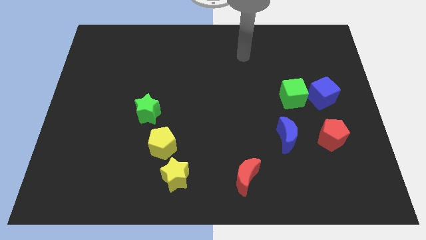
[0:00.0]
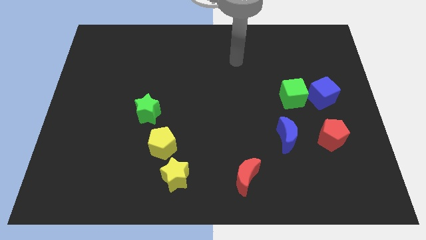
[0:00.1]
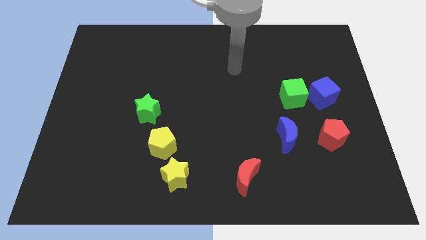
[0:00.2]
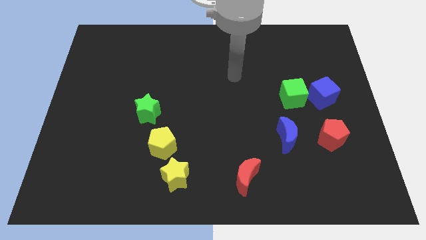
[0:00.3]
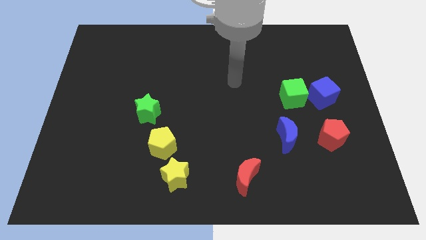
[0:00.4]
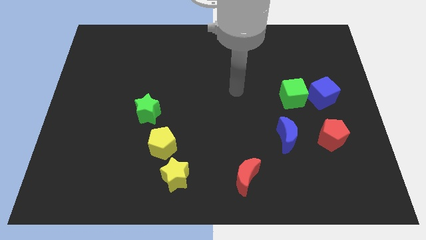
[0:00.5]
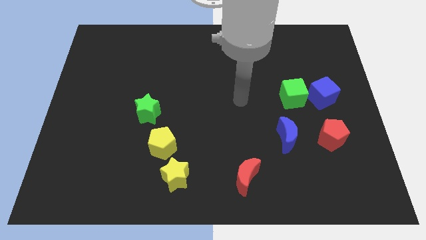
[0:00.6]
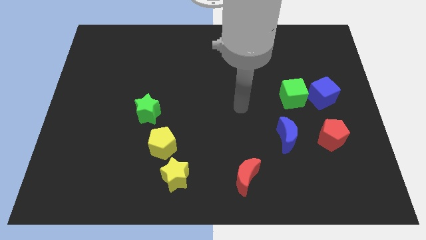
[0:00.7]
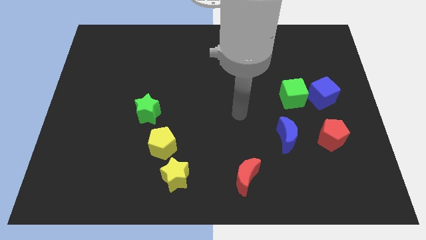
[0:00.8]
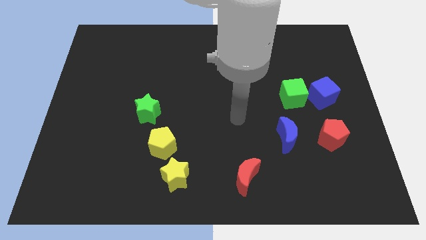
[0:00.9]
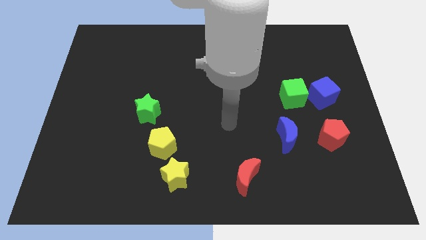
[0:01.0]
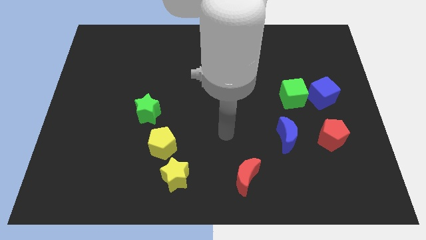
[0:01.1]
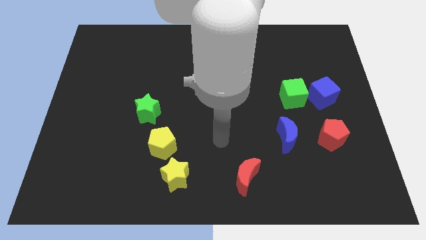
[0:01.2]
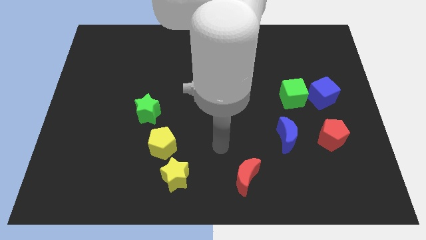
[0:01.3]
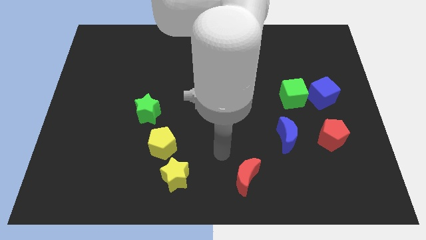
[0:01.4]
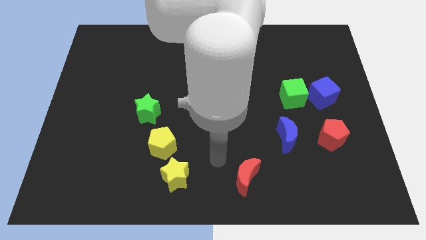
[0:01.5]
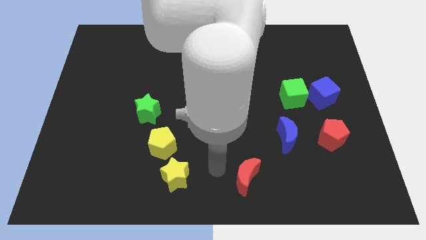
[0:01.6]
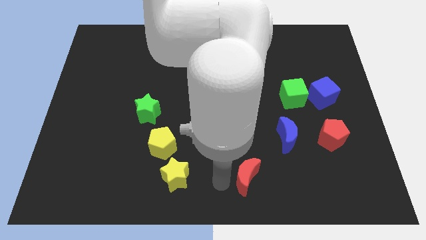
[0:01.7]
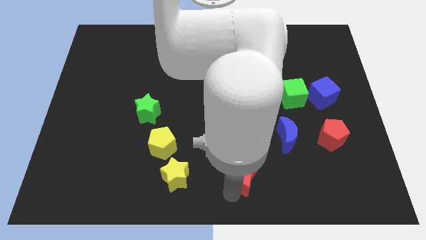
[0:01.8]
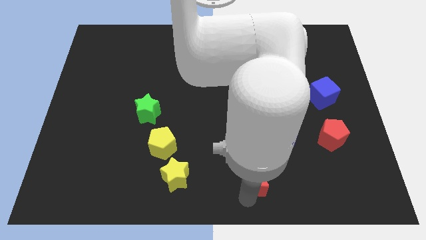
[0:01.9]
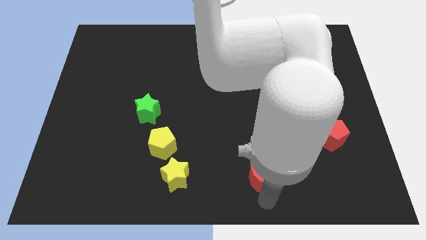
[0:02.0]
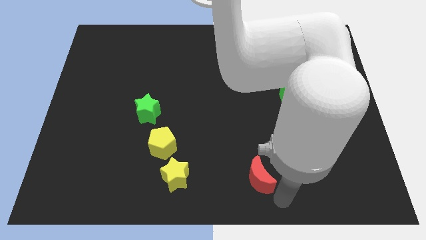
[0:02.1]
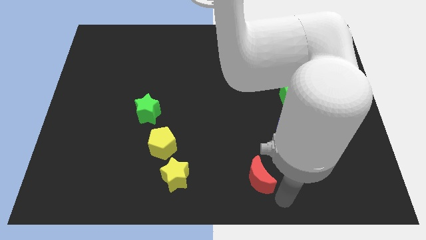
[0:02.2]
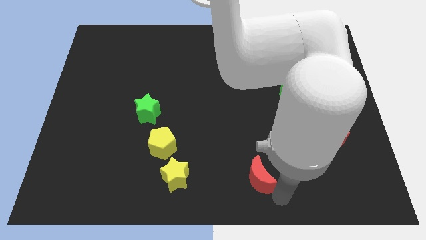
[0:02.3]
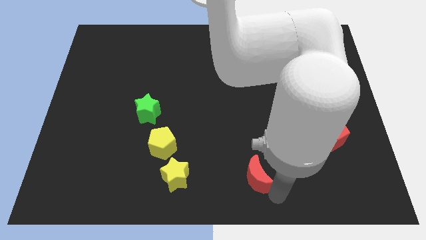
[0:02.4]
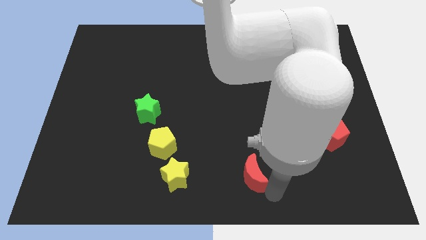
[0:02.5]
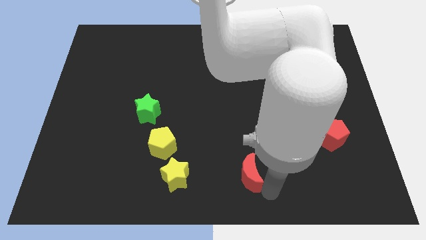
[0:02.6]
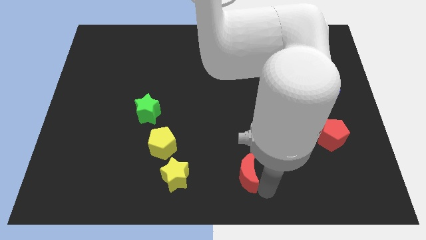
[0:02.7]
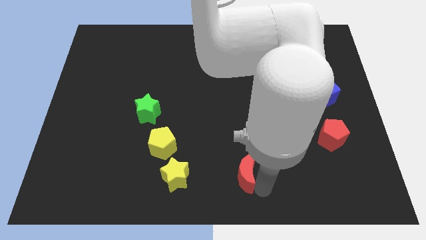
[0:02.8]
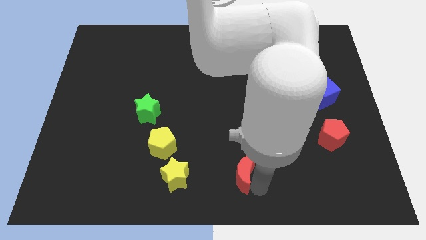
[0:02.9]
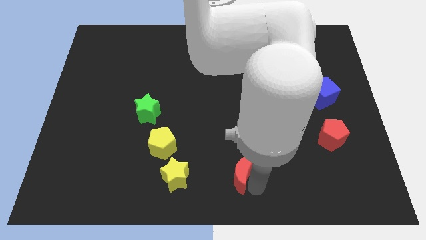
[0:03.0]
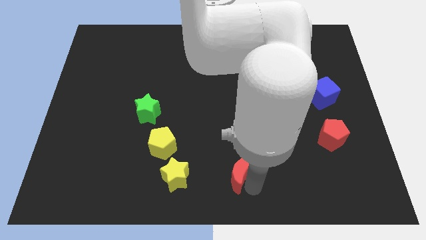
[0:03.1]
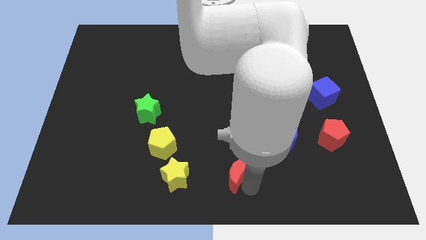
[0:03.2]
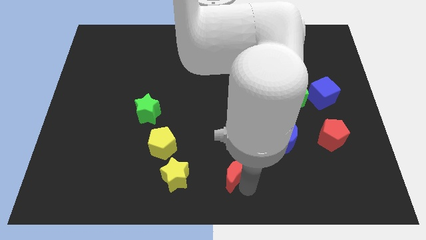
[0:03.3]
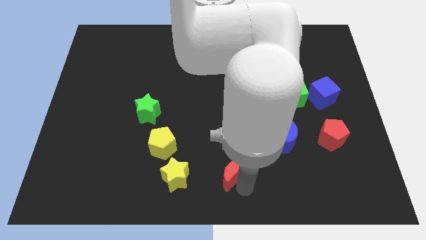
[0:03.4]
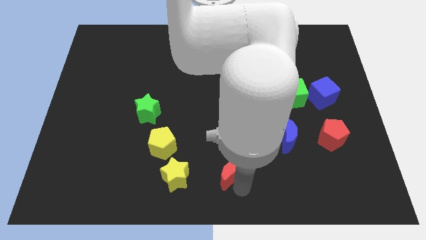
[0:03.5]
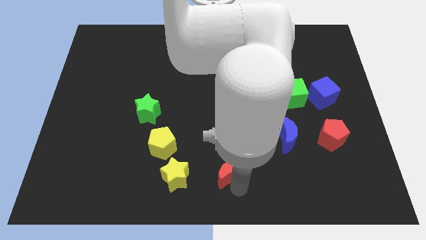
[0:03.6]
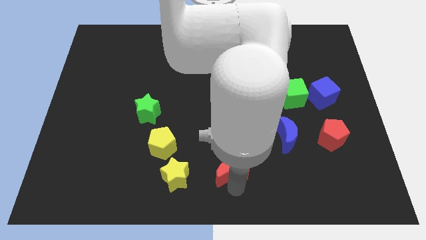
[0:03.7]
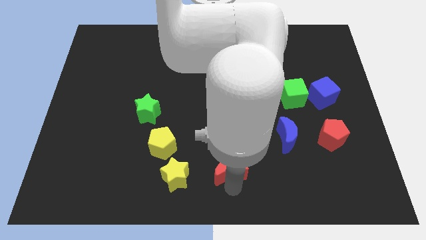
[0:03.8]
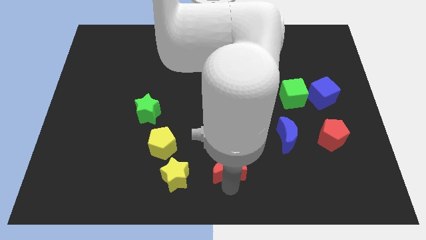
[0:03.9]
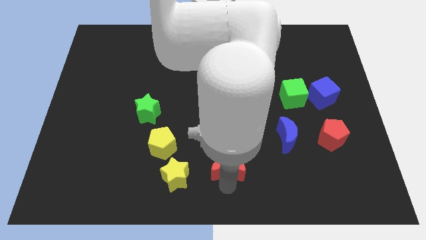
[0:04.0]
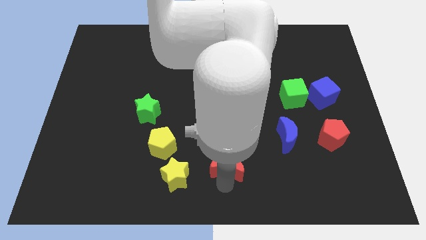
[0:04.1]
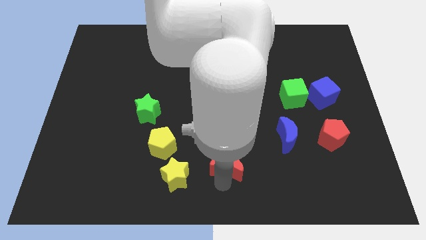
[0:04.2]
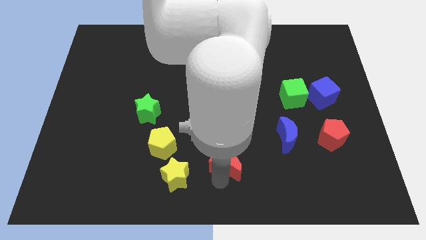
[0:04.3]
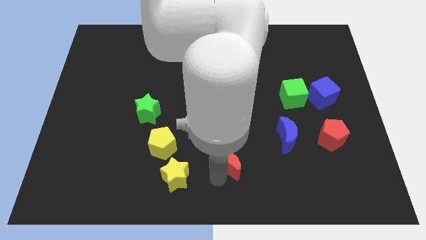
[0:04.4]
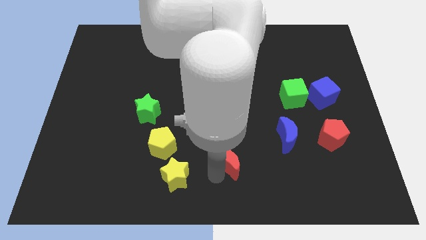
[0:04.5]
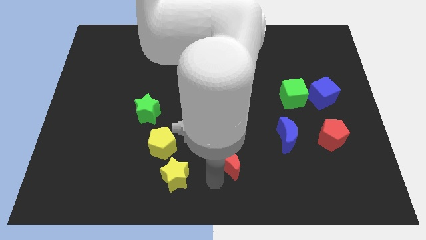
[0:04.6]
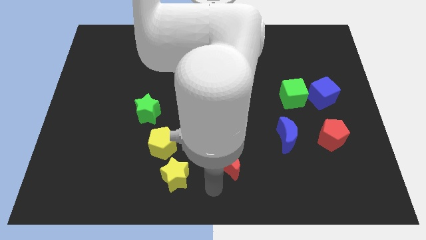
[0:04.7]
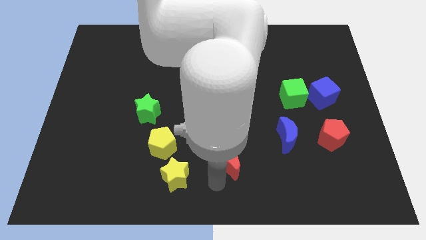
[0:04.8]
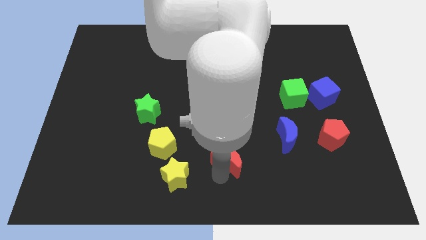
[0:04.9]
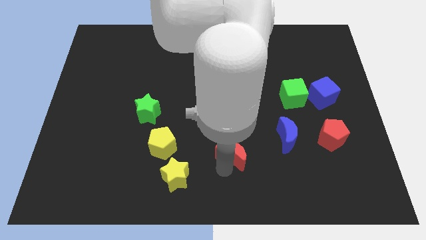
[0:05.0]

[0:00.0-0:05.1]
put the red moon to the left of the blue moon

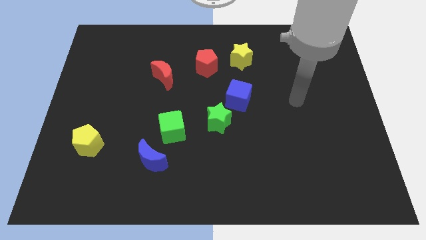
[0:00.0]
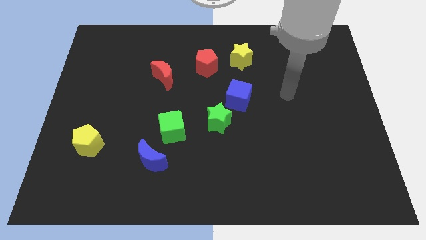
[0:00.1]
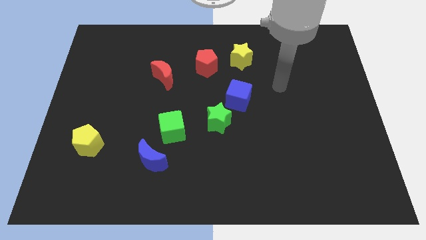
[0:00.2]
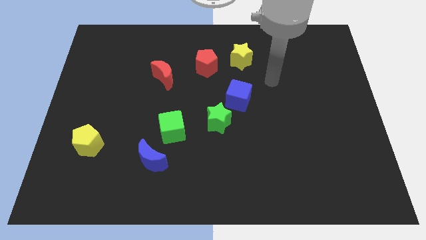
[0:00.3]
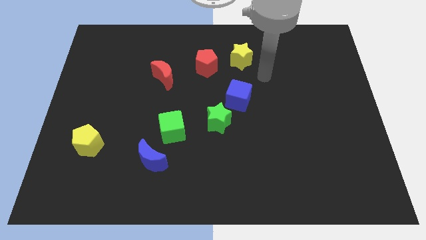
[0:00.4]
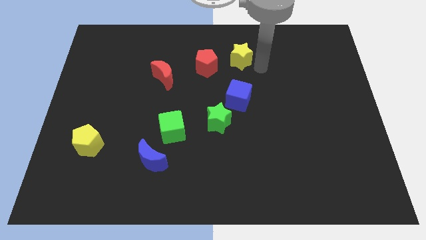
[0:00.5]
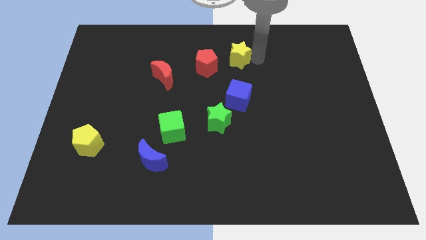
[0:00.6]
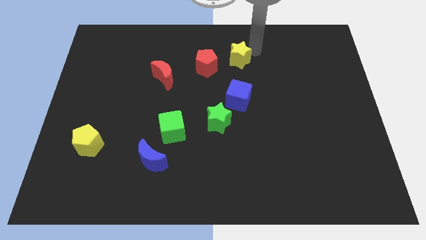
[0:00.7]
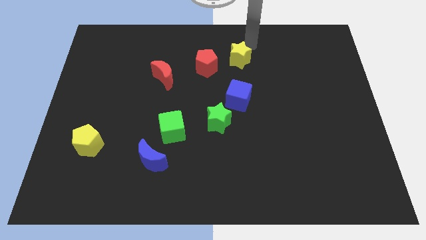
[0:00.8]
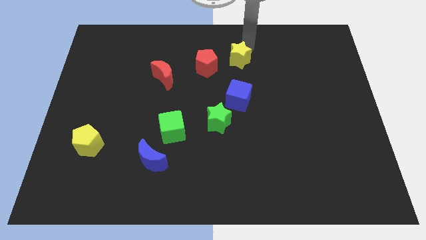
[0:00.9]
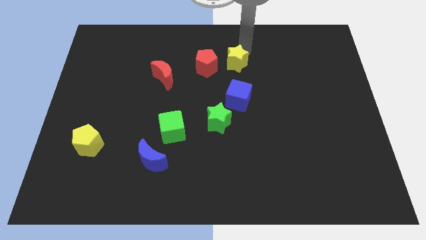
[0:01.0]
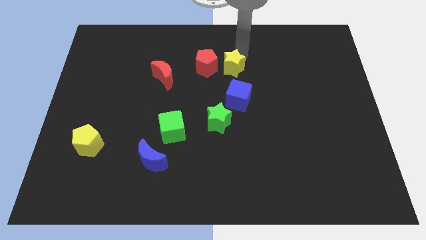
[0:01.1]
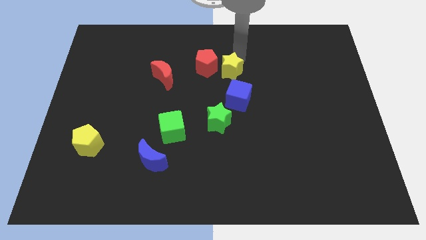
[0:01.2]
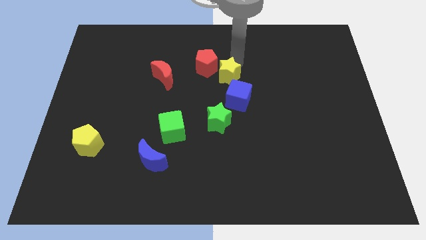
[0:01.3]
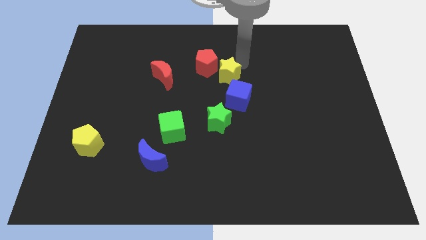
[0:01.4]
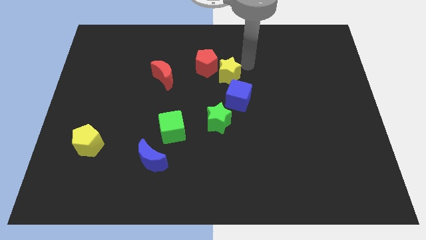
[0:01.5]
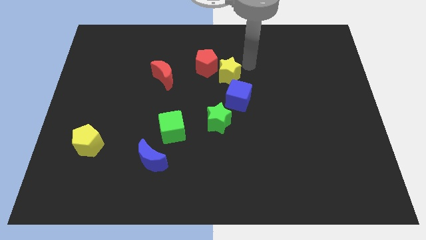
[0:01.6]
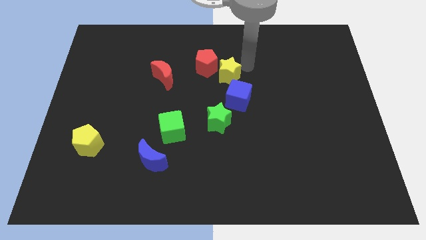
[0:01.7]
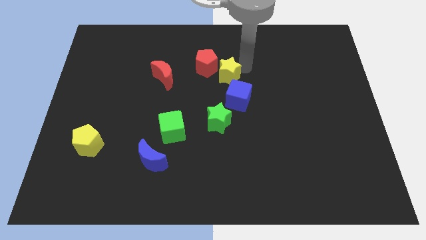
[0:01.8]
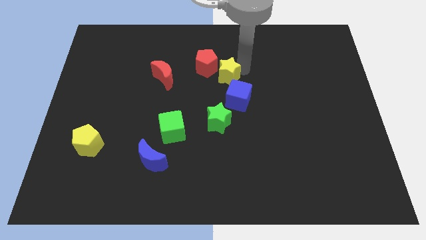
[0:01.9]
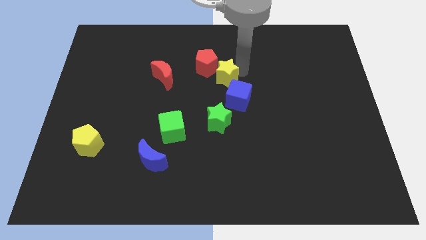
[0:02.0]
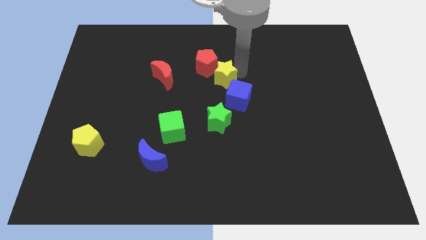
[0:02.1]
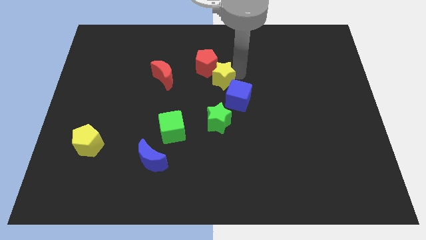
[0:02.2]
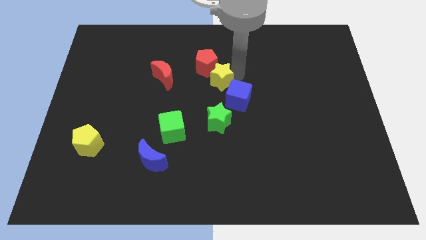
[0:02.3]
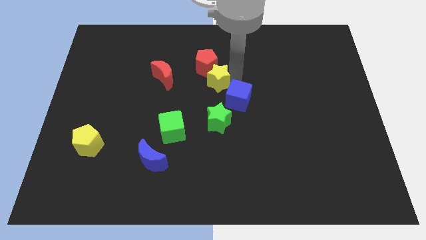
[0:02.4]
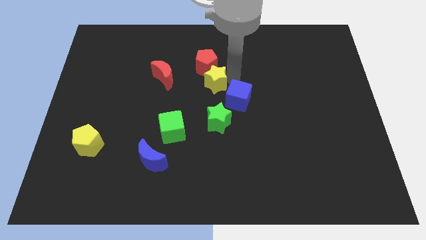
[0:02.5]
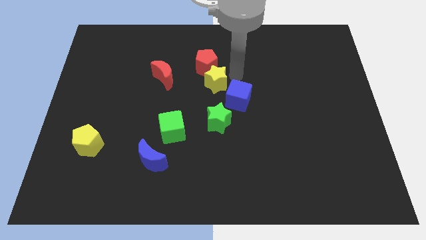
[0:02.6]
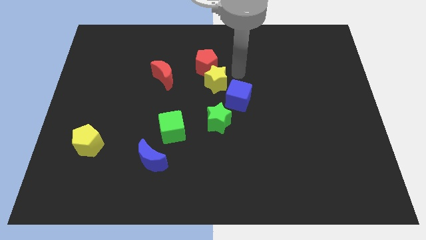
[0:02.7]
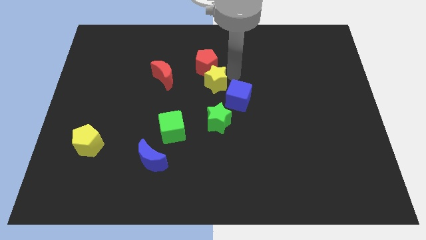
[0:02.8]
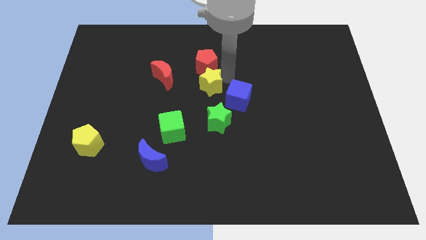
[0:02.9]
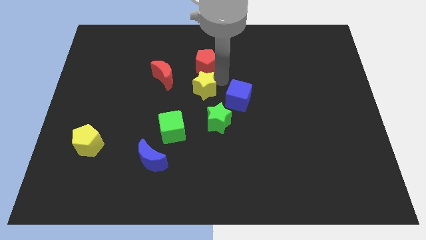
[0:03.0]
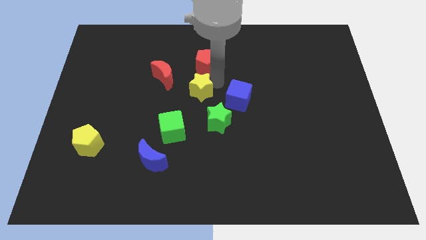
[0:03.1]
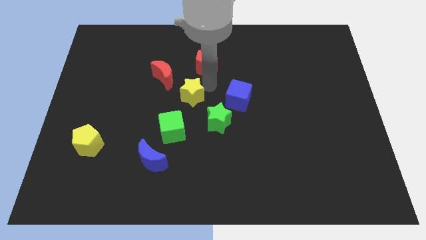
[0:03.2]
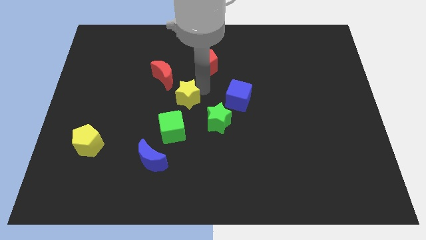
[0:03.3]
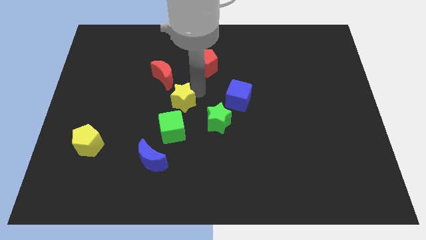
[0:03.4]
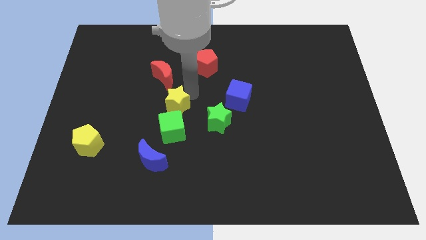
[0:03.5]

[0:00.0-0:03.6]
push the yellow star to the left side of the green star
